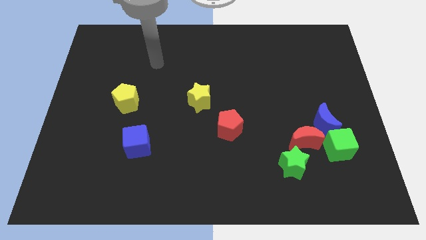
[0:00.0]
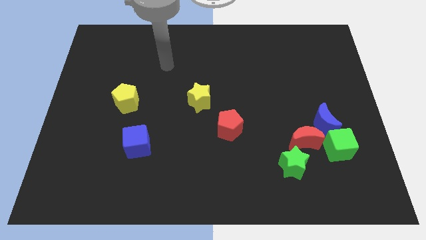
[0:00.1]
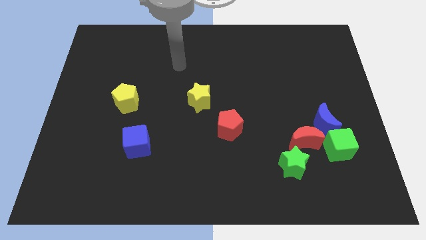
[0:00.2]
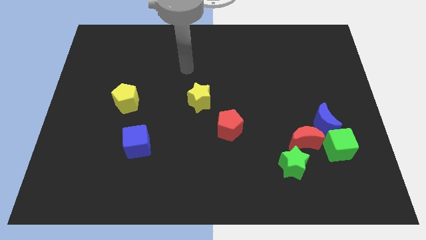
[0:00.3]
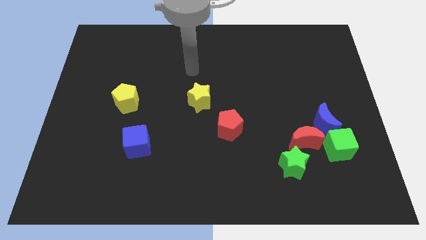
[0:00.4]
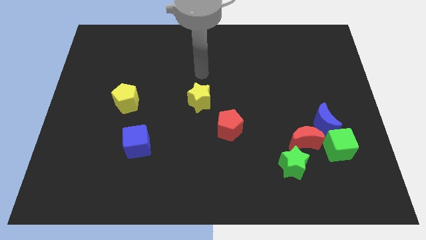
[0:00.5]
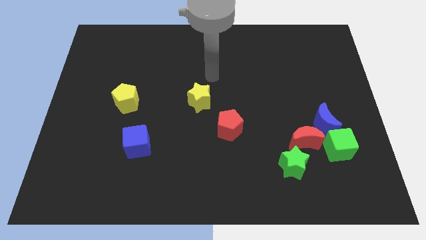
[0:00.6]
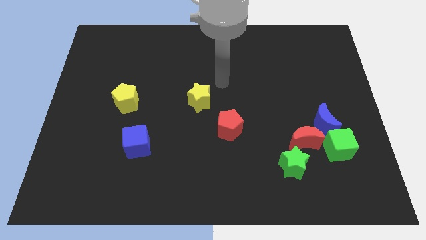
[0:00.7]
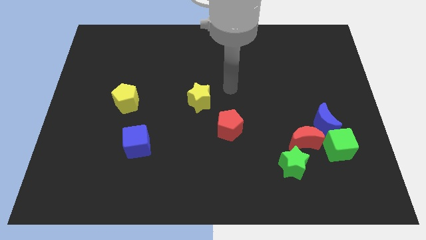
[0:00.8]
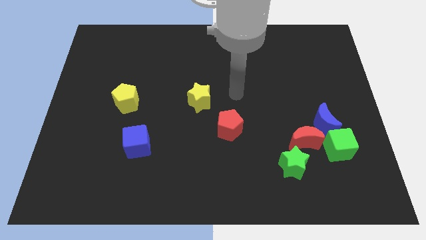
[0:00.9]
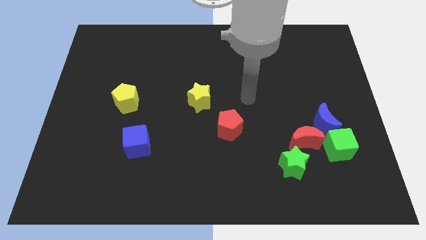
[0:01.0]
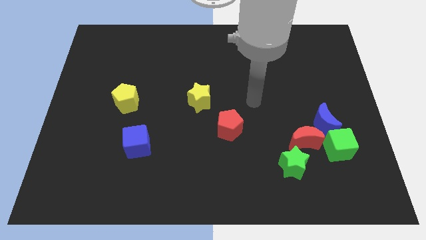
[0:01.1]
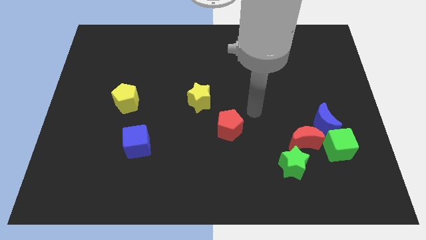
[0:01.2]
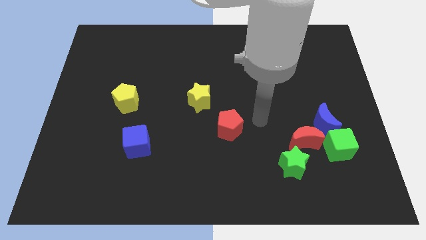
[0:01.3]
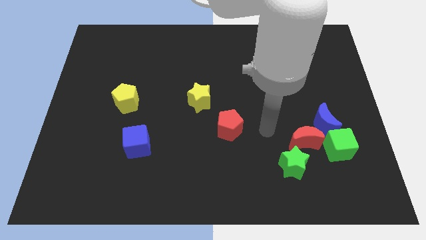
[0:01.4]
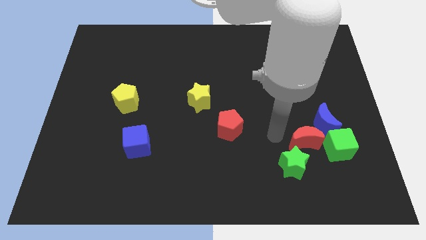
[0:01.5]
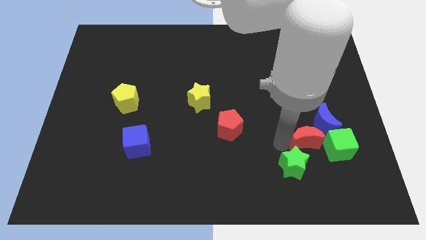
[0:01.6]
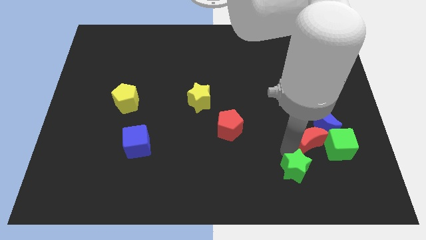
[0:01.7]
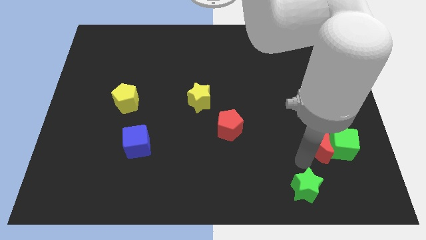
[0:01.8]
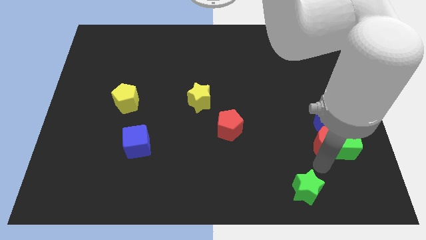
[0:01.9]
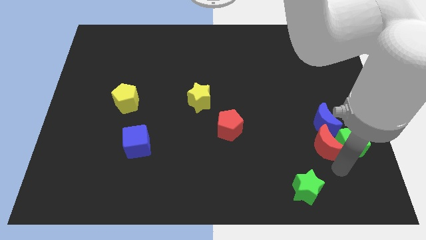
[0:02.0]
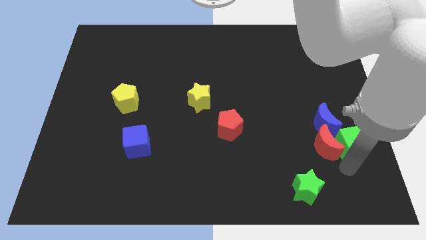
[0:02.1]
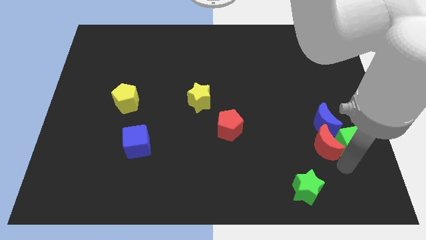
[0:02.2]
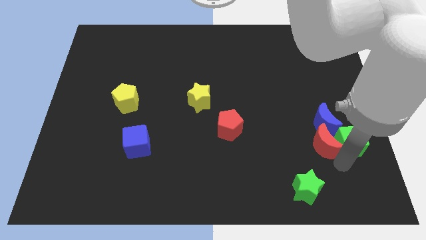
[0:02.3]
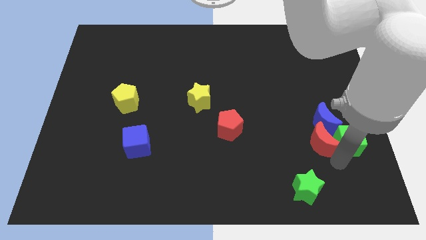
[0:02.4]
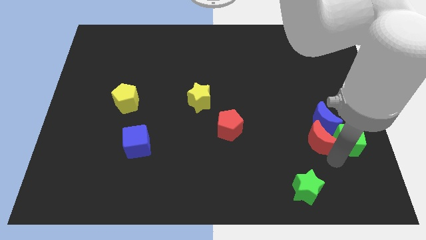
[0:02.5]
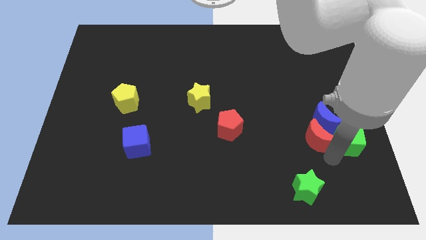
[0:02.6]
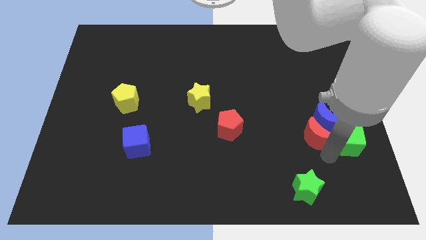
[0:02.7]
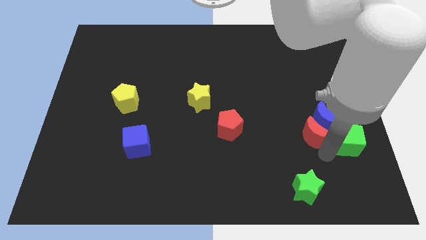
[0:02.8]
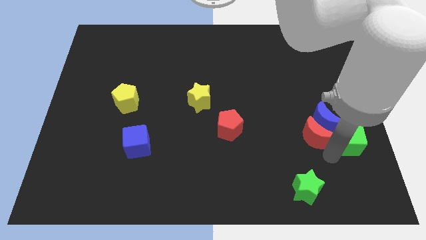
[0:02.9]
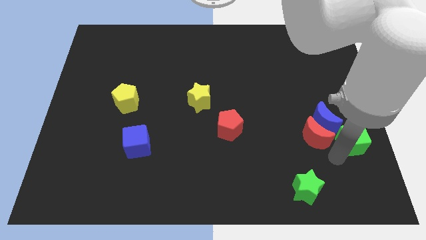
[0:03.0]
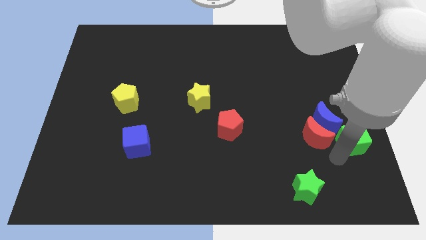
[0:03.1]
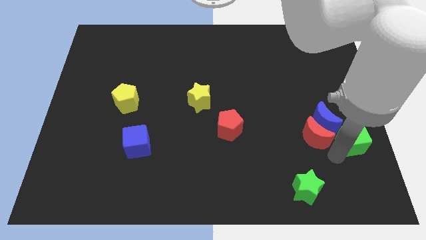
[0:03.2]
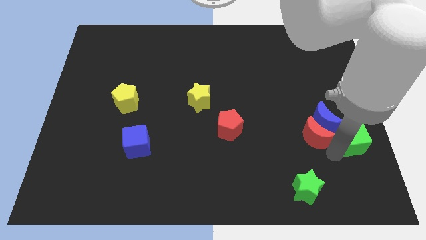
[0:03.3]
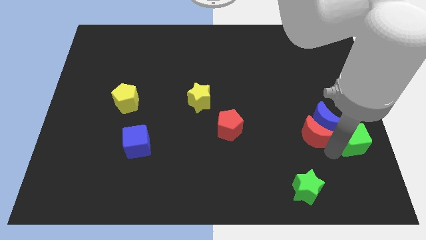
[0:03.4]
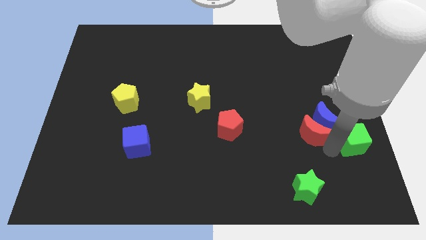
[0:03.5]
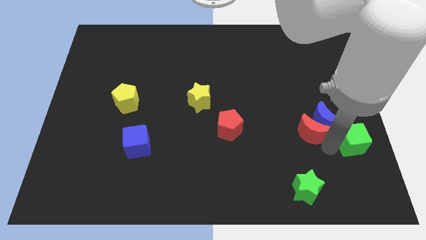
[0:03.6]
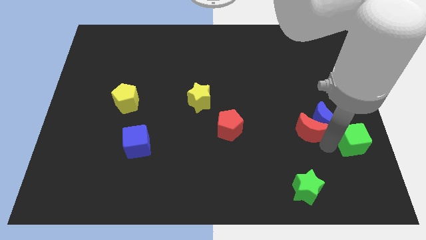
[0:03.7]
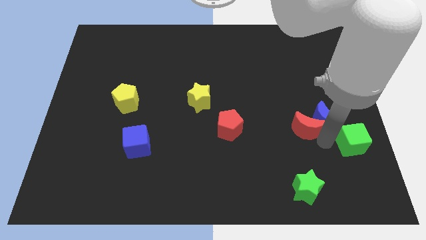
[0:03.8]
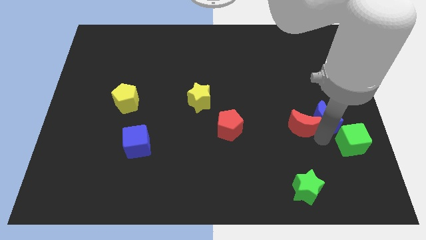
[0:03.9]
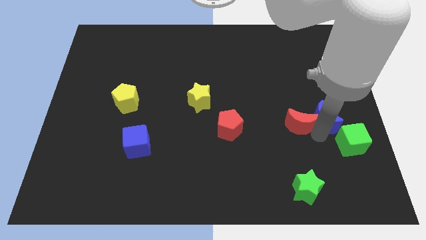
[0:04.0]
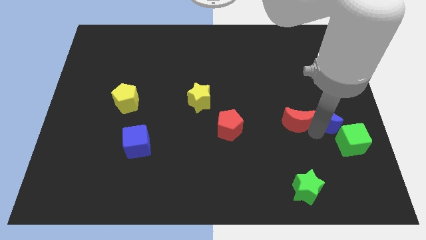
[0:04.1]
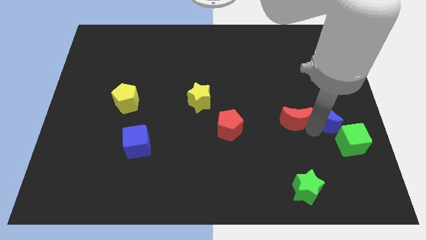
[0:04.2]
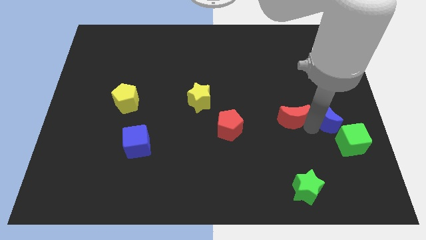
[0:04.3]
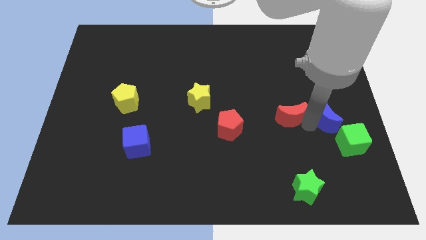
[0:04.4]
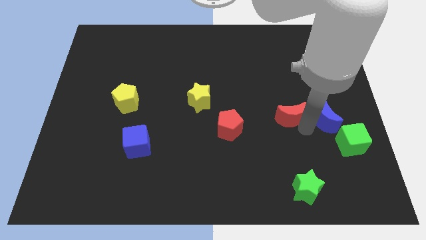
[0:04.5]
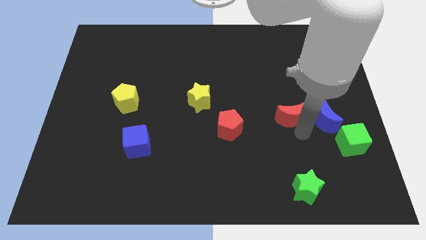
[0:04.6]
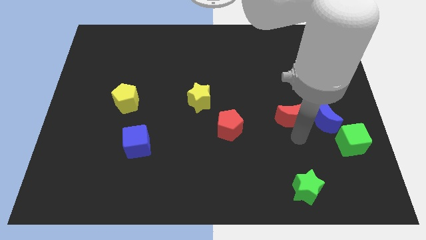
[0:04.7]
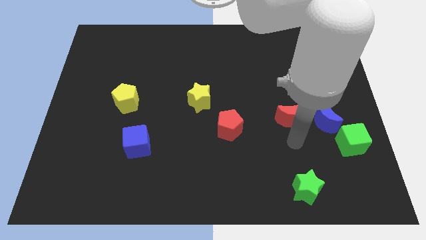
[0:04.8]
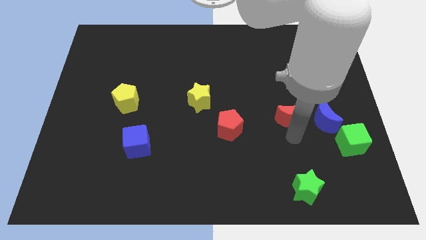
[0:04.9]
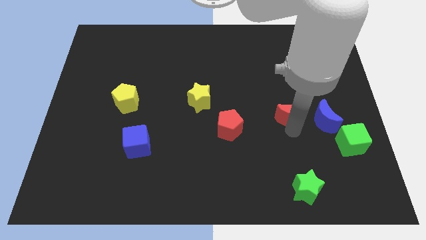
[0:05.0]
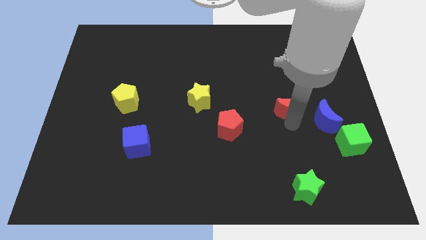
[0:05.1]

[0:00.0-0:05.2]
move the red moon upwards a bit

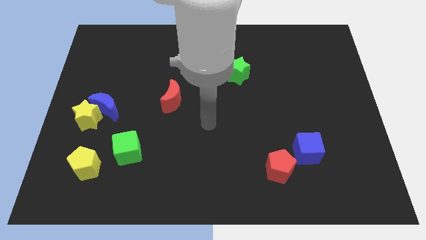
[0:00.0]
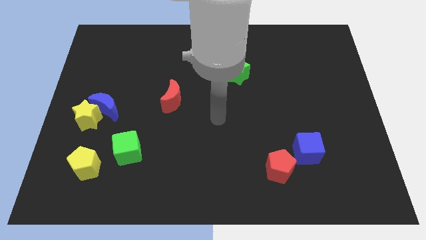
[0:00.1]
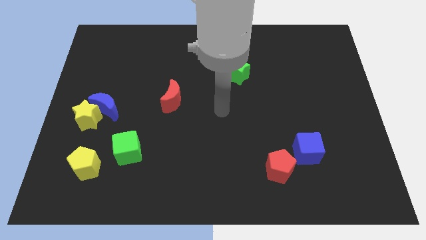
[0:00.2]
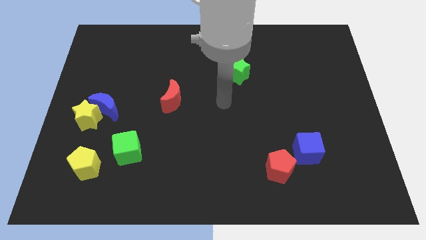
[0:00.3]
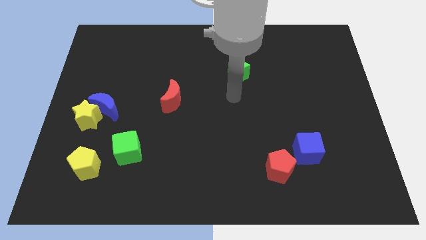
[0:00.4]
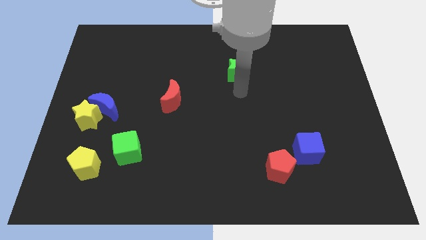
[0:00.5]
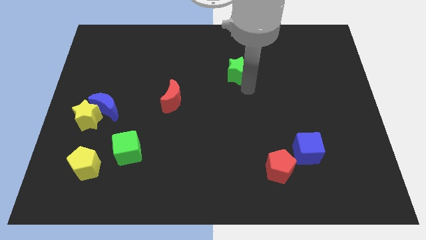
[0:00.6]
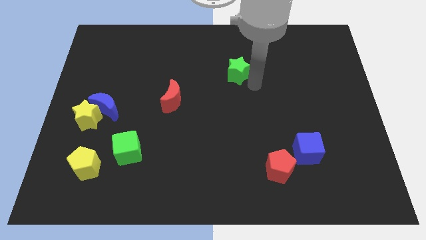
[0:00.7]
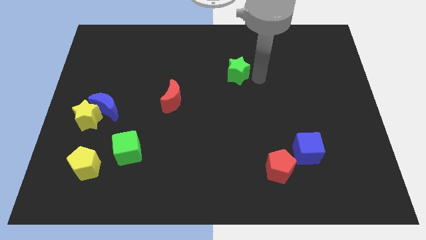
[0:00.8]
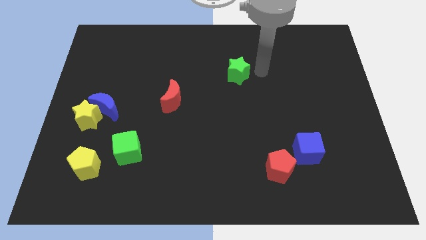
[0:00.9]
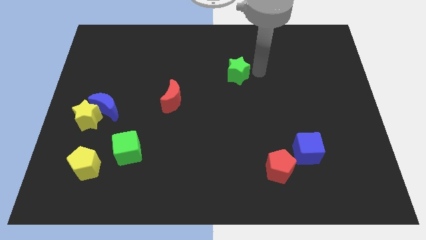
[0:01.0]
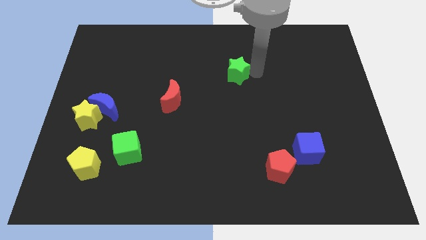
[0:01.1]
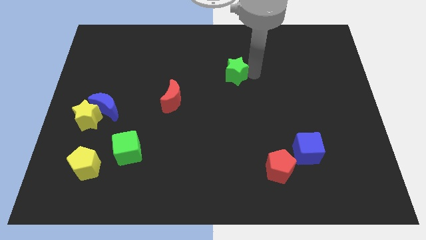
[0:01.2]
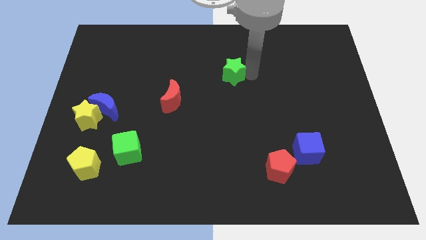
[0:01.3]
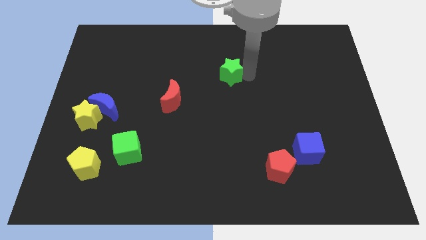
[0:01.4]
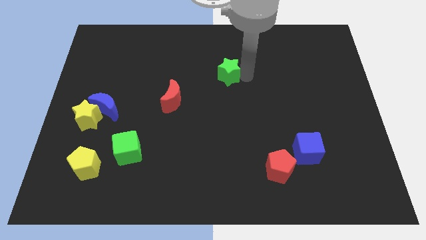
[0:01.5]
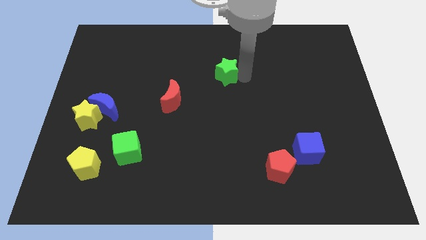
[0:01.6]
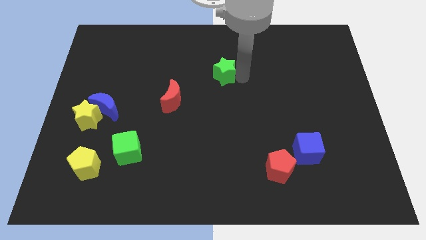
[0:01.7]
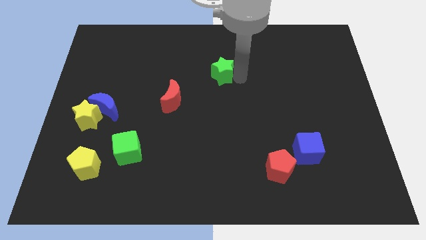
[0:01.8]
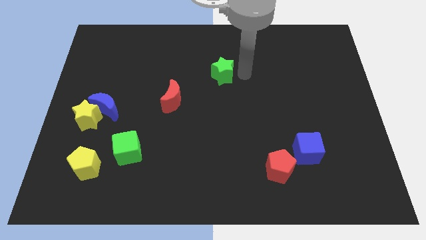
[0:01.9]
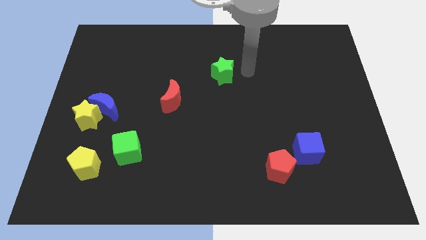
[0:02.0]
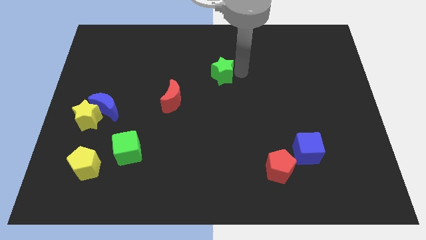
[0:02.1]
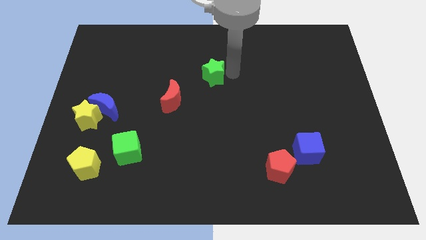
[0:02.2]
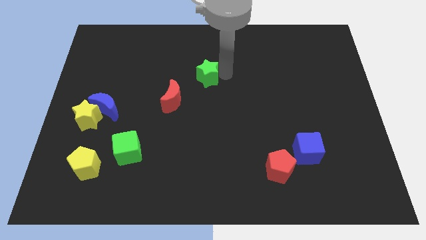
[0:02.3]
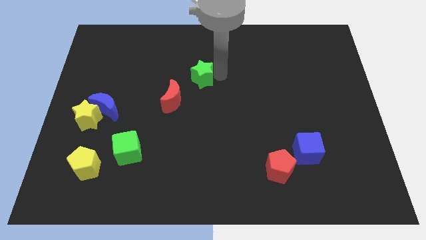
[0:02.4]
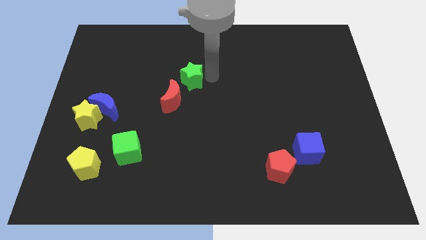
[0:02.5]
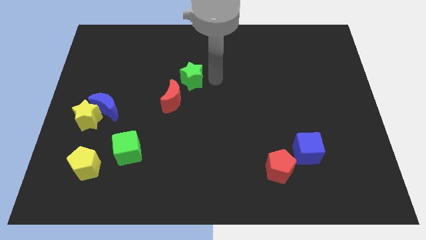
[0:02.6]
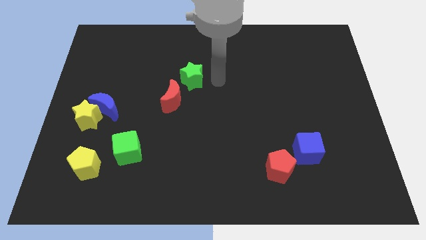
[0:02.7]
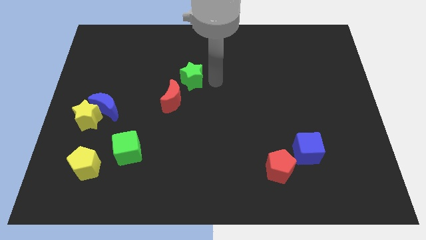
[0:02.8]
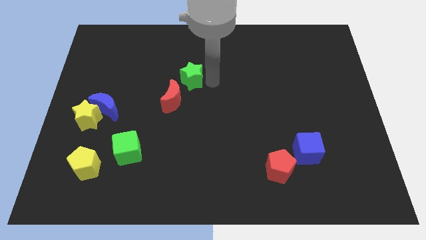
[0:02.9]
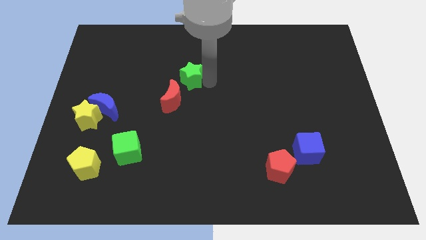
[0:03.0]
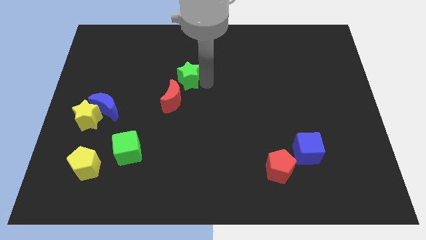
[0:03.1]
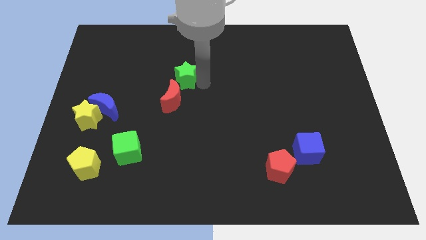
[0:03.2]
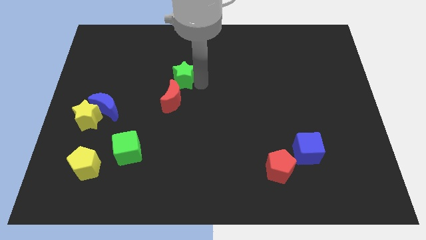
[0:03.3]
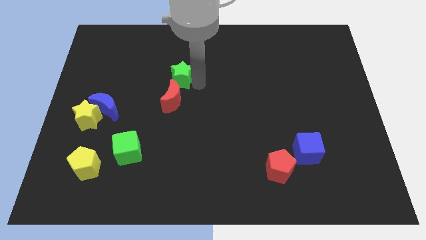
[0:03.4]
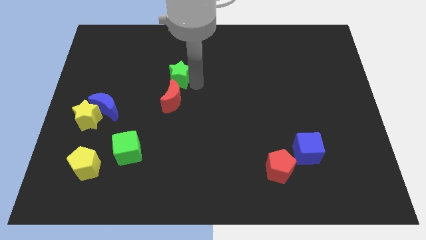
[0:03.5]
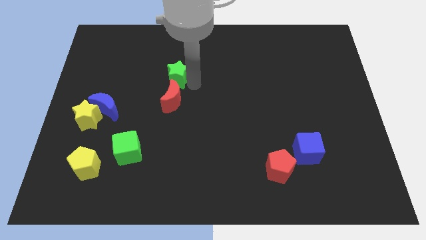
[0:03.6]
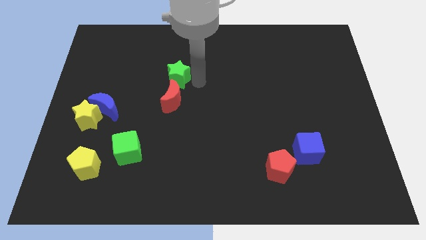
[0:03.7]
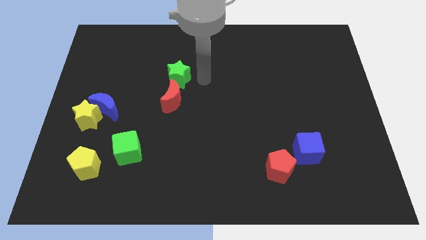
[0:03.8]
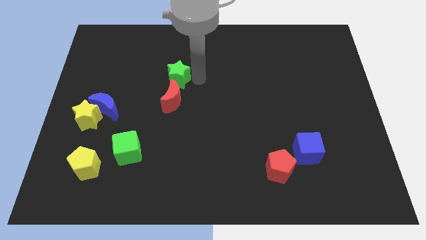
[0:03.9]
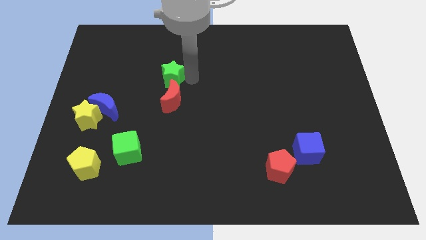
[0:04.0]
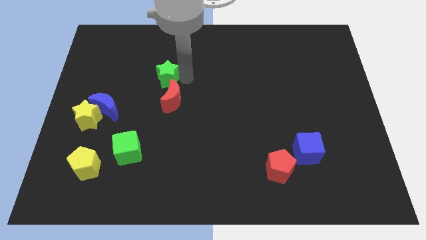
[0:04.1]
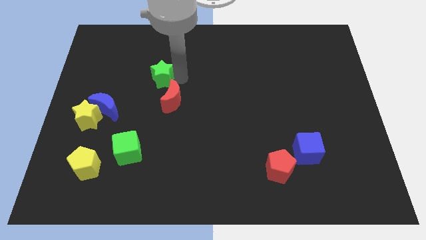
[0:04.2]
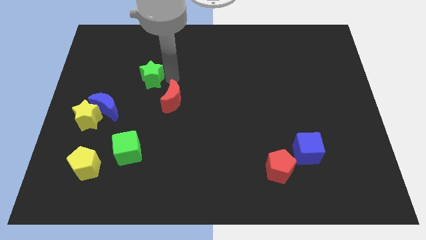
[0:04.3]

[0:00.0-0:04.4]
push the green star left
